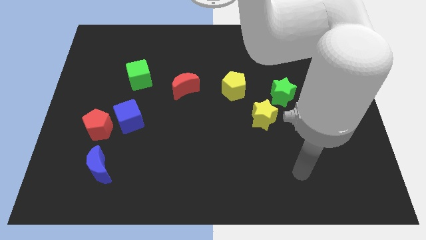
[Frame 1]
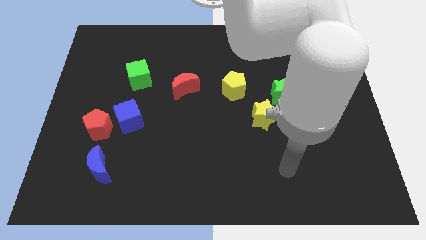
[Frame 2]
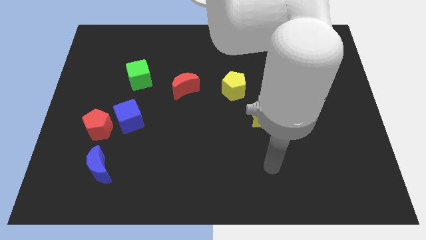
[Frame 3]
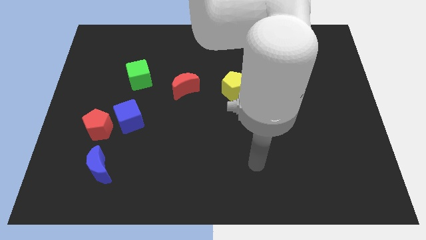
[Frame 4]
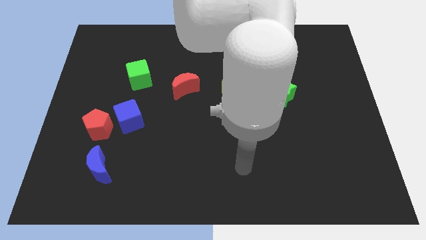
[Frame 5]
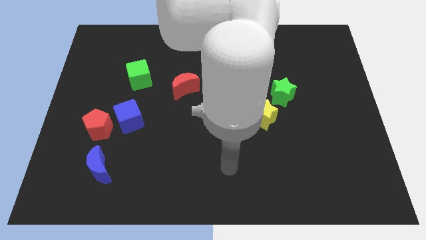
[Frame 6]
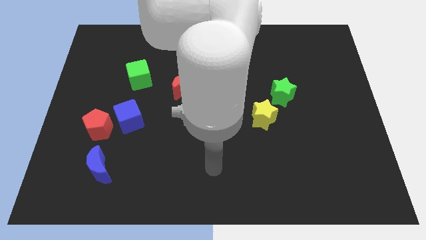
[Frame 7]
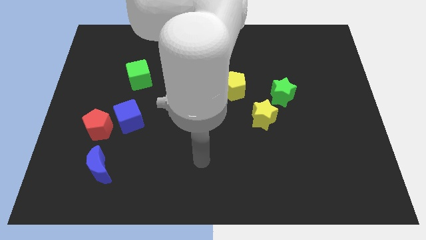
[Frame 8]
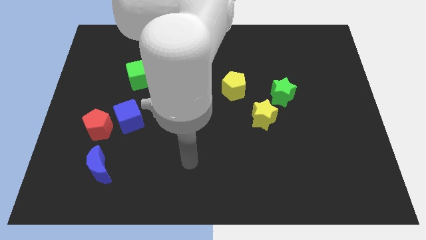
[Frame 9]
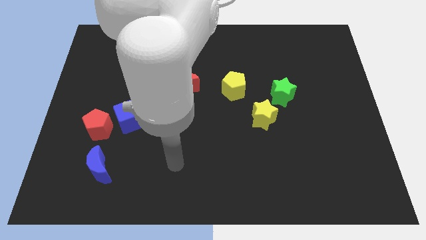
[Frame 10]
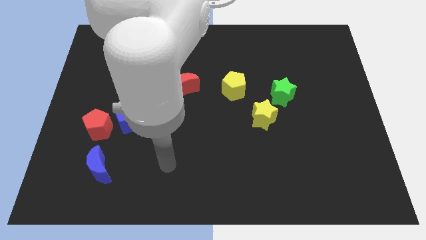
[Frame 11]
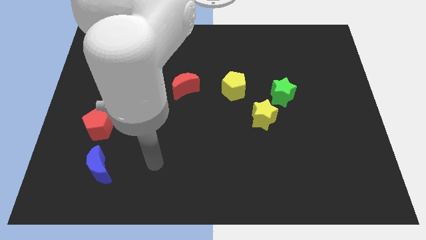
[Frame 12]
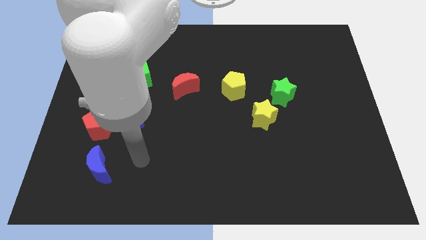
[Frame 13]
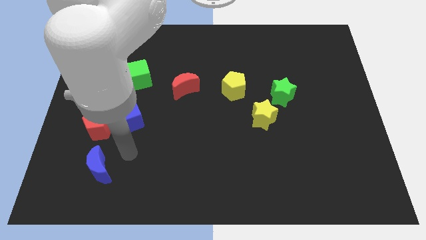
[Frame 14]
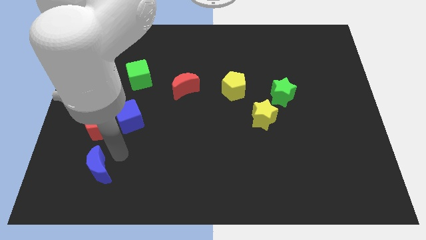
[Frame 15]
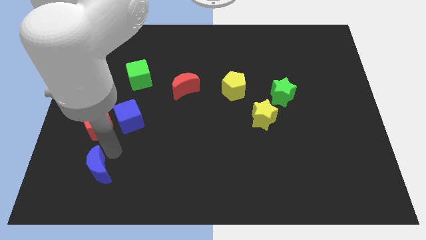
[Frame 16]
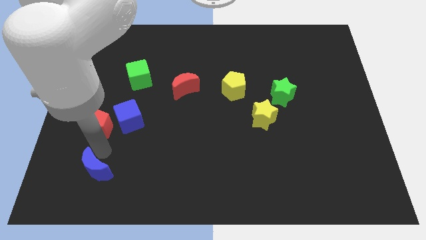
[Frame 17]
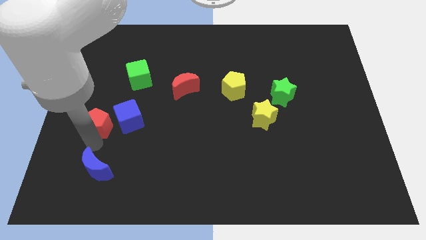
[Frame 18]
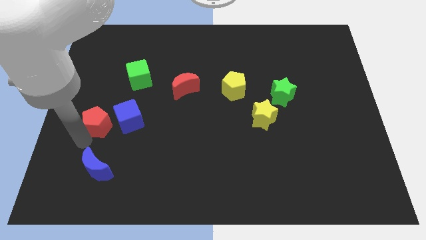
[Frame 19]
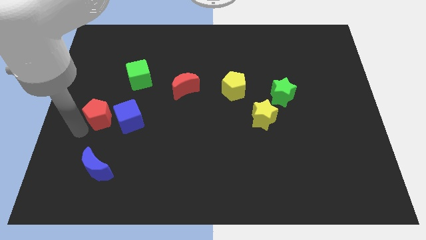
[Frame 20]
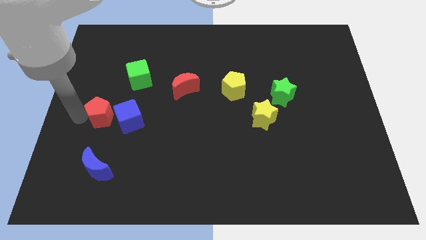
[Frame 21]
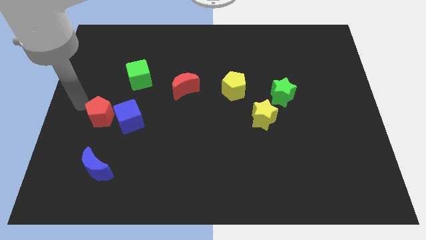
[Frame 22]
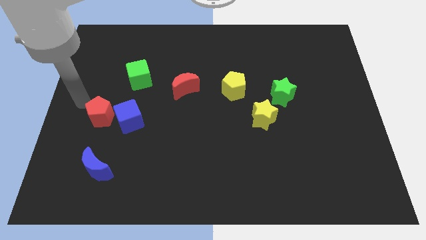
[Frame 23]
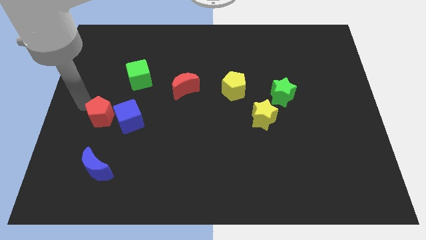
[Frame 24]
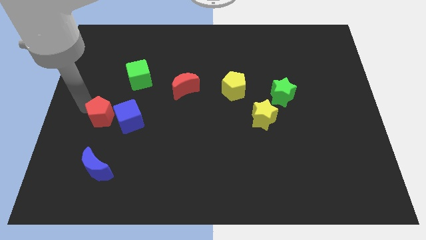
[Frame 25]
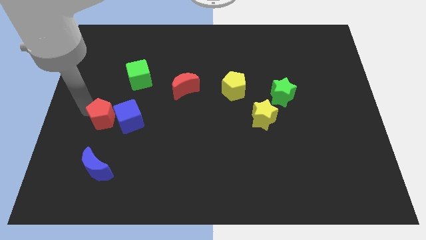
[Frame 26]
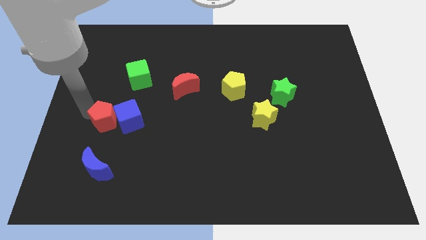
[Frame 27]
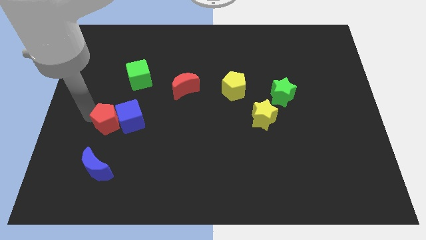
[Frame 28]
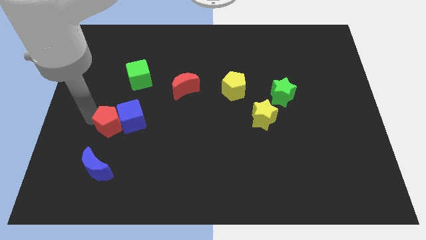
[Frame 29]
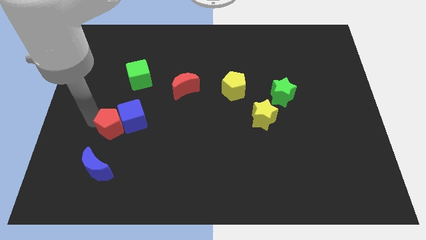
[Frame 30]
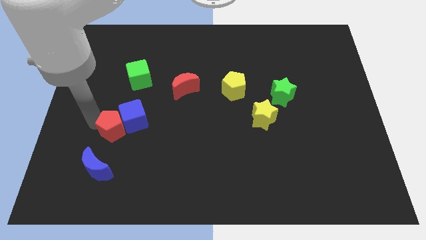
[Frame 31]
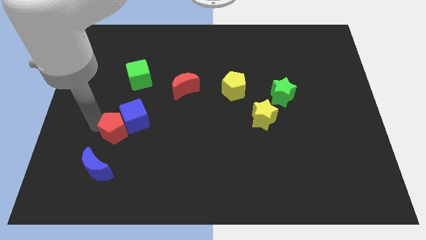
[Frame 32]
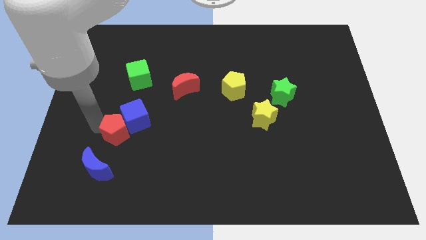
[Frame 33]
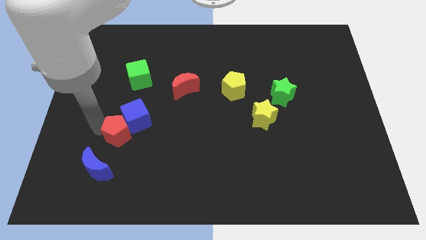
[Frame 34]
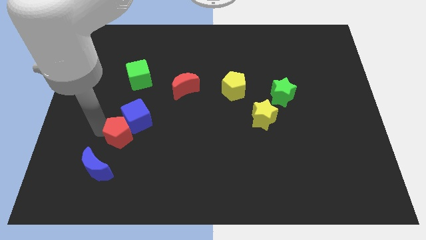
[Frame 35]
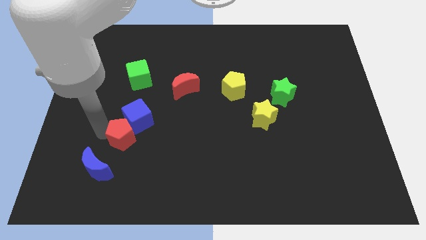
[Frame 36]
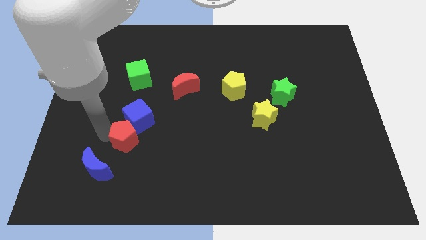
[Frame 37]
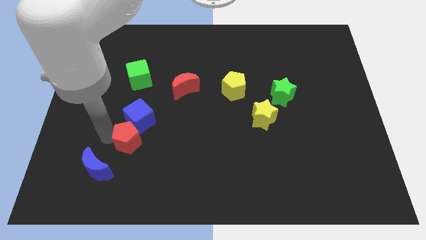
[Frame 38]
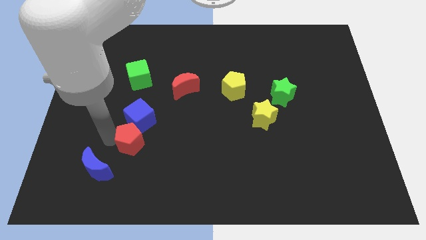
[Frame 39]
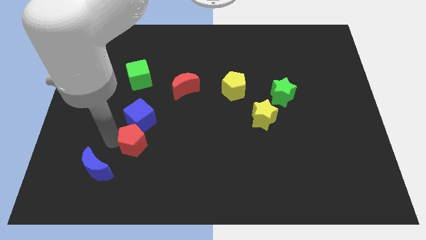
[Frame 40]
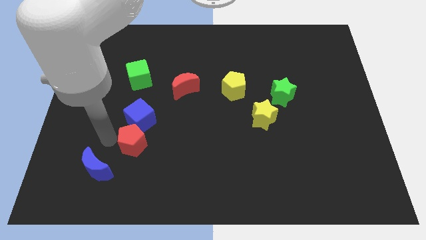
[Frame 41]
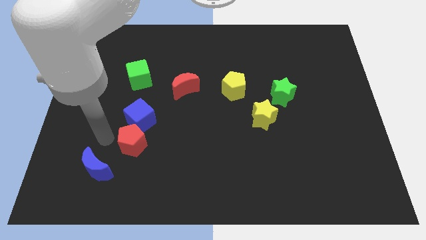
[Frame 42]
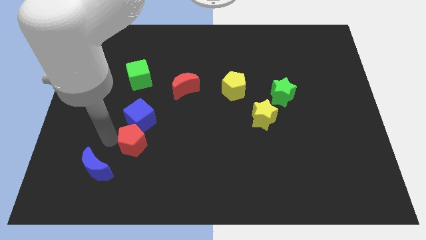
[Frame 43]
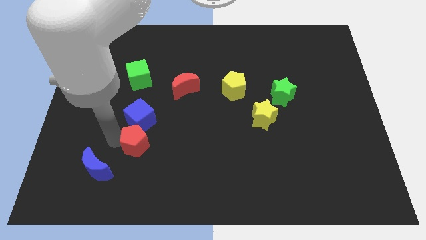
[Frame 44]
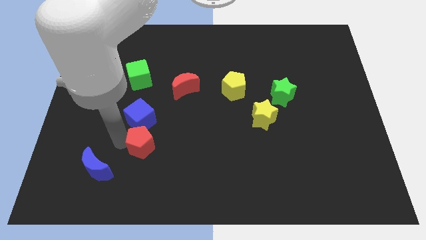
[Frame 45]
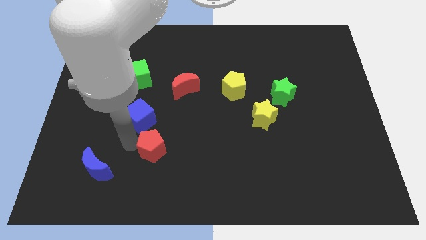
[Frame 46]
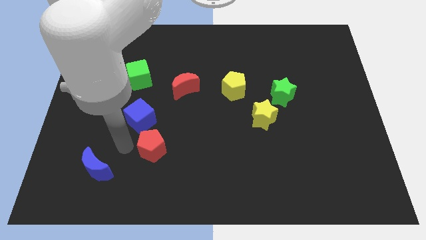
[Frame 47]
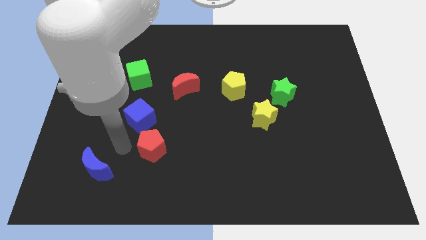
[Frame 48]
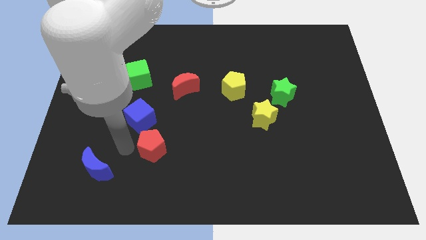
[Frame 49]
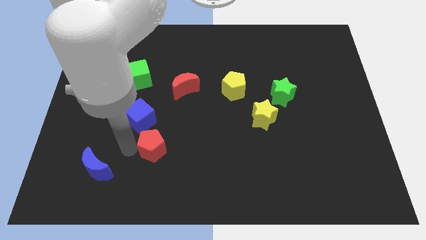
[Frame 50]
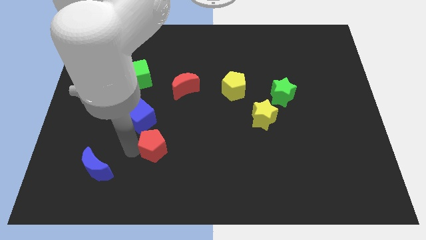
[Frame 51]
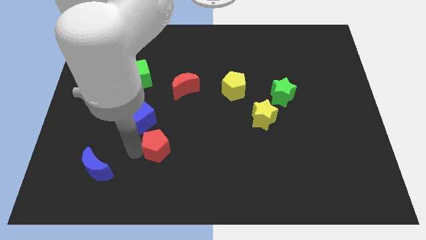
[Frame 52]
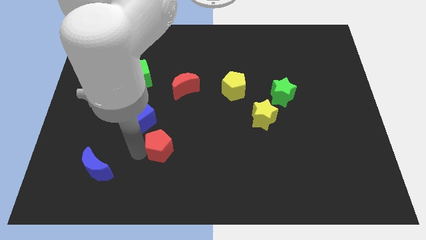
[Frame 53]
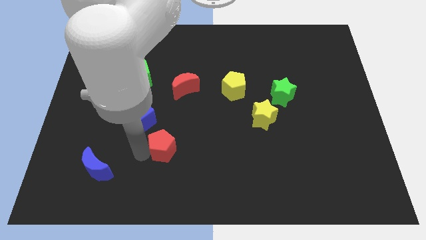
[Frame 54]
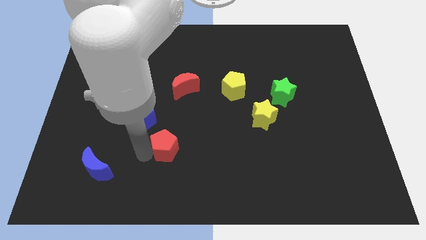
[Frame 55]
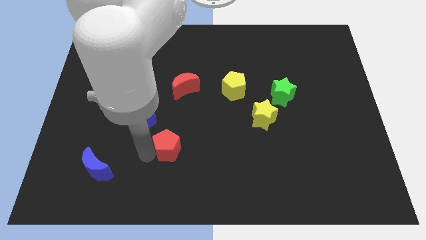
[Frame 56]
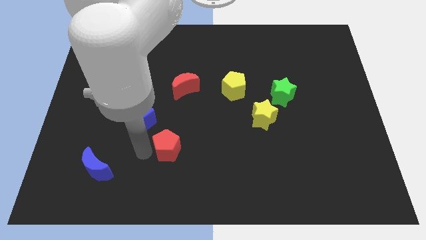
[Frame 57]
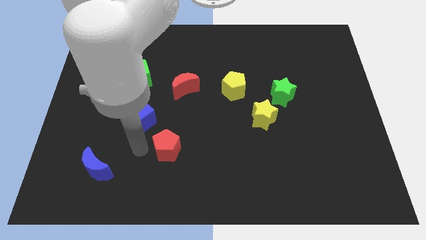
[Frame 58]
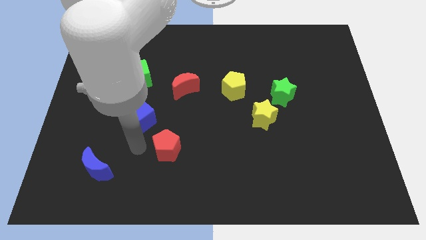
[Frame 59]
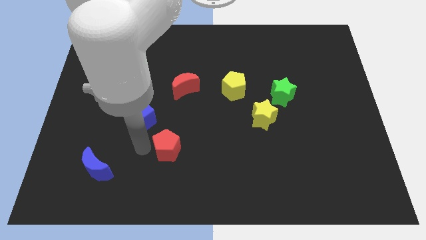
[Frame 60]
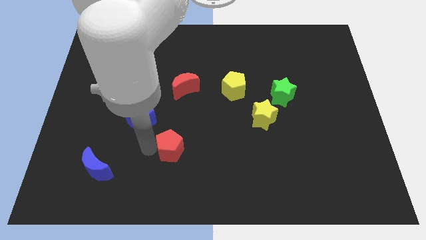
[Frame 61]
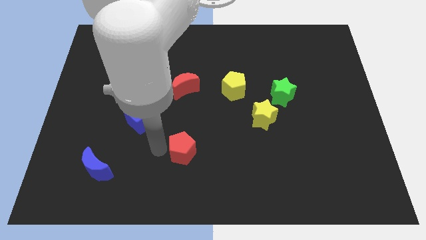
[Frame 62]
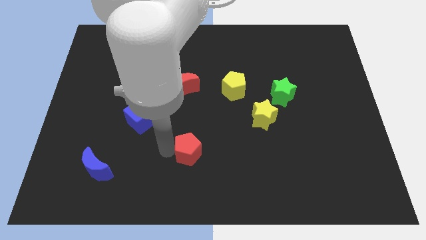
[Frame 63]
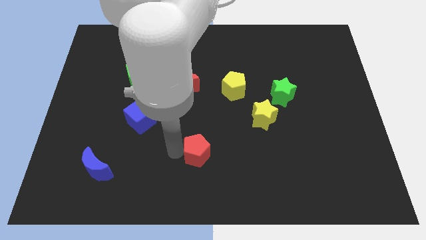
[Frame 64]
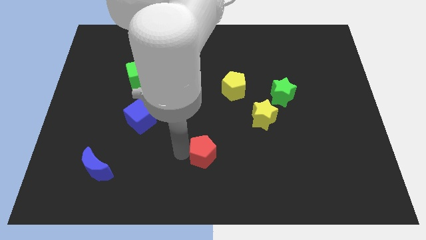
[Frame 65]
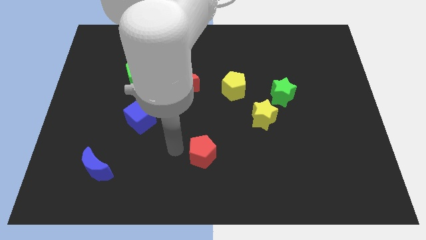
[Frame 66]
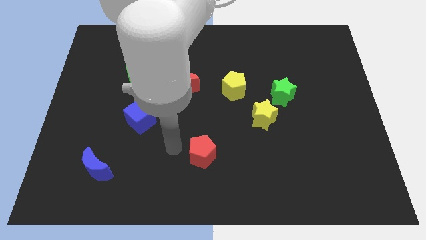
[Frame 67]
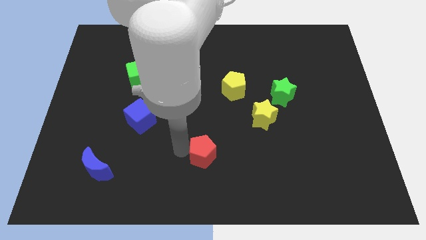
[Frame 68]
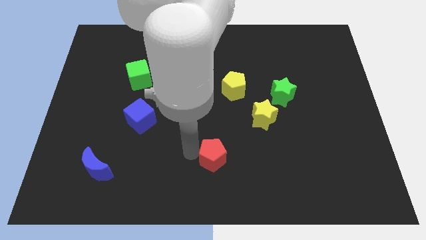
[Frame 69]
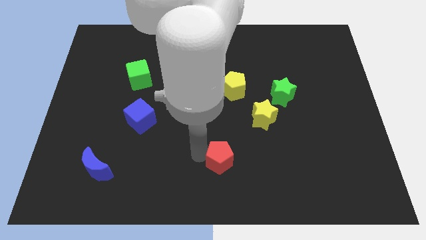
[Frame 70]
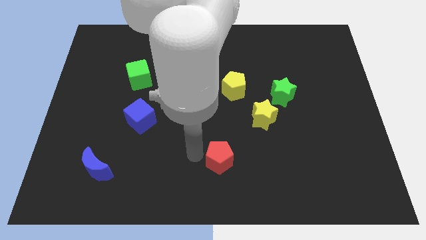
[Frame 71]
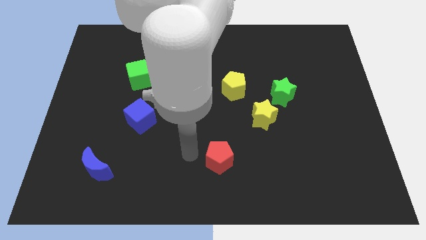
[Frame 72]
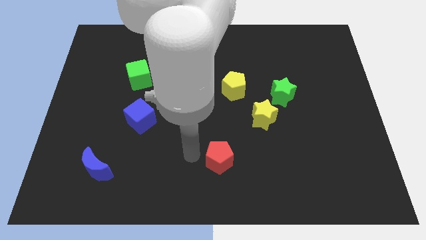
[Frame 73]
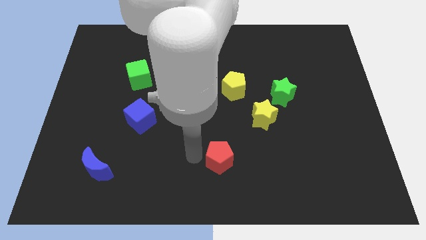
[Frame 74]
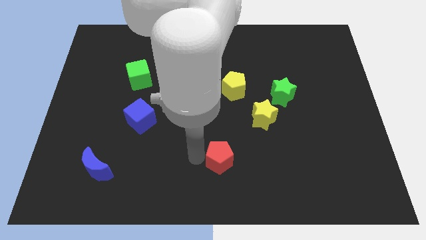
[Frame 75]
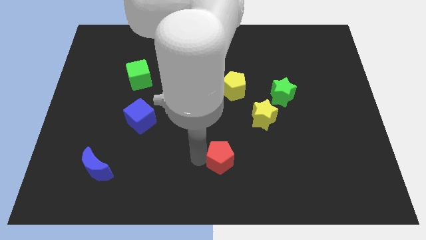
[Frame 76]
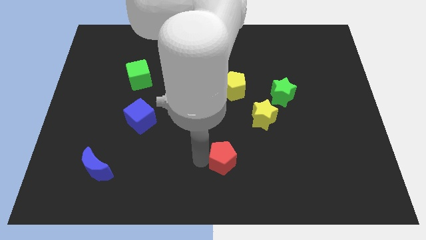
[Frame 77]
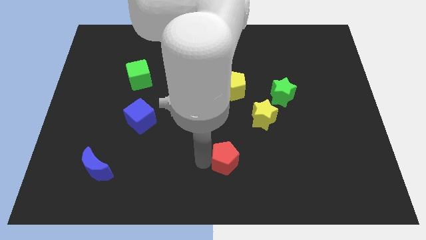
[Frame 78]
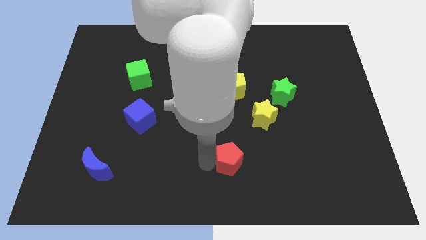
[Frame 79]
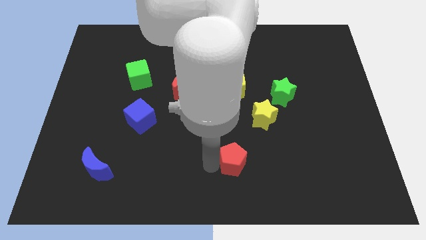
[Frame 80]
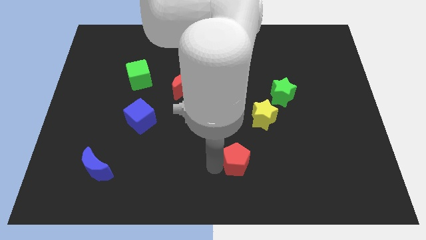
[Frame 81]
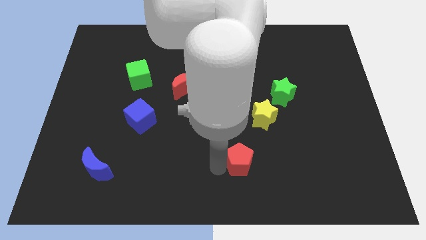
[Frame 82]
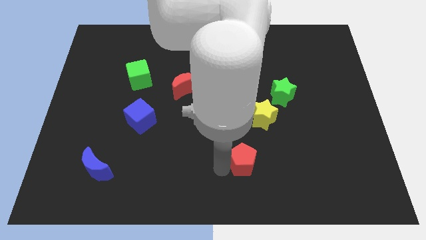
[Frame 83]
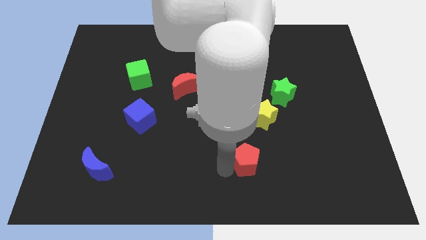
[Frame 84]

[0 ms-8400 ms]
put the red pentagon to the bottom side of the yellow star

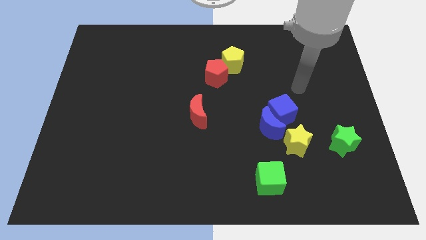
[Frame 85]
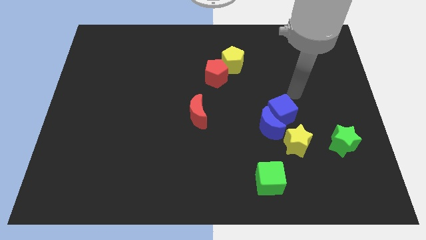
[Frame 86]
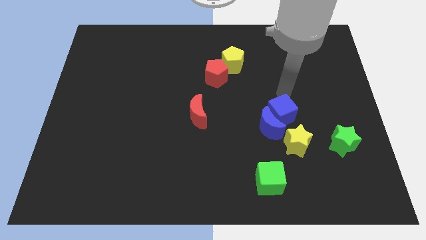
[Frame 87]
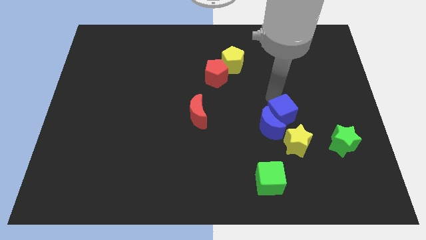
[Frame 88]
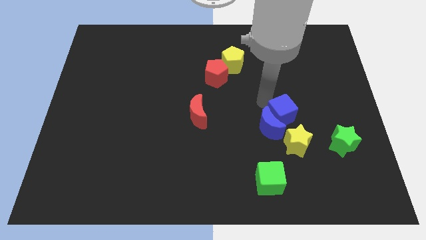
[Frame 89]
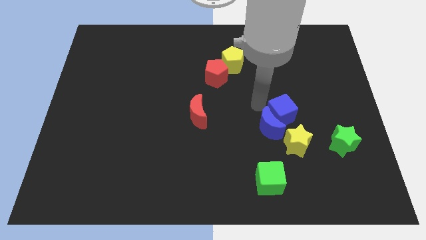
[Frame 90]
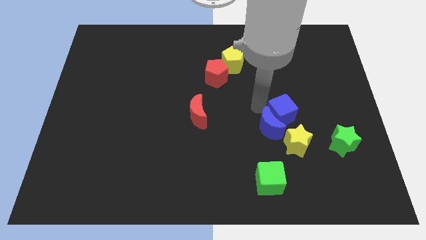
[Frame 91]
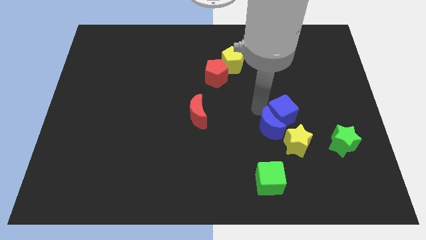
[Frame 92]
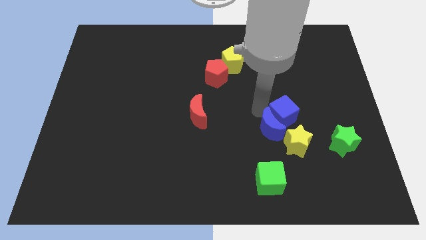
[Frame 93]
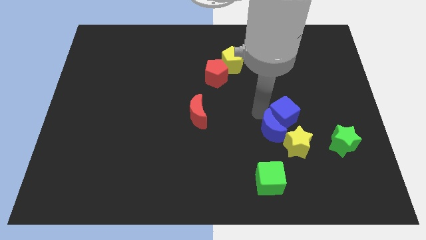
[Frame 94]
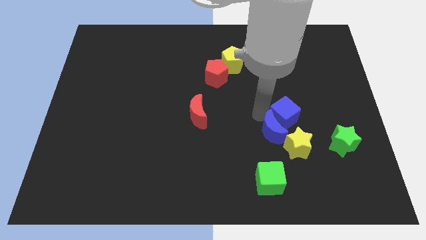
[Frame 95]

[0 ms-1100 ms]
push the blue moon to the left side of the green star
